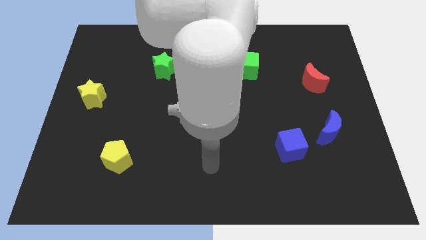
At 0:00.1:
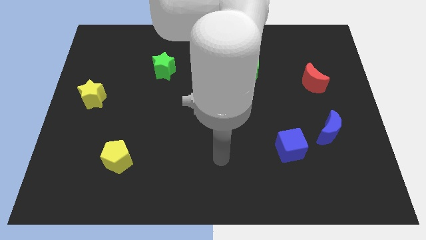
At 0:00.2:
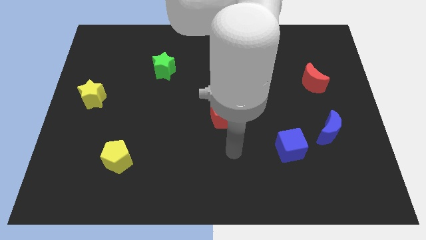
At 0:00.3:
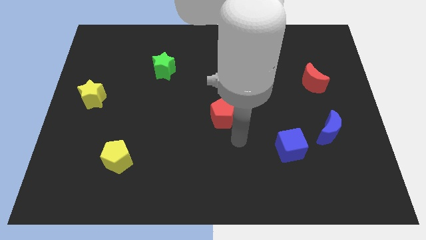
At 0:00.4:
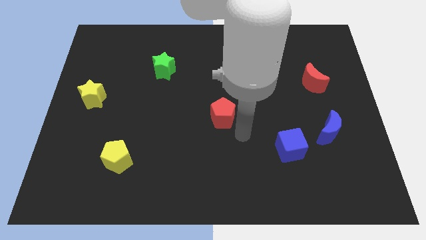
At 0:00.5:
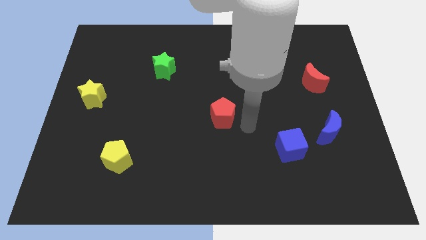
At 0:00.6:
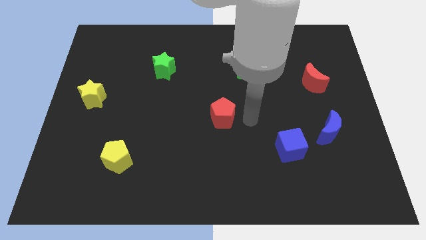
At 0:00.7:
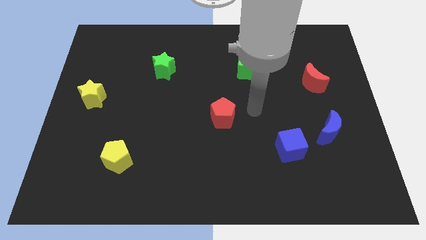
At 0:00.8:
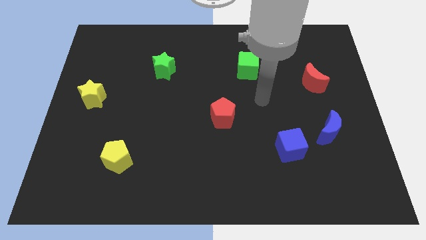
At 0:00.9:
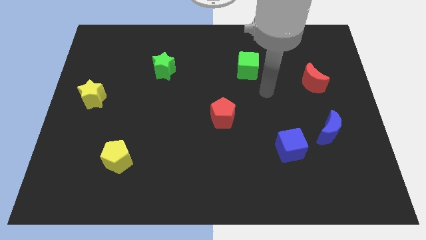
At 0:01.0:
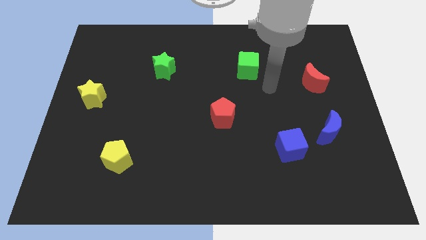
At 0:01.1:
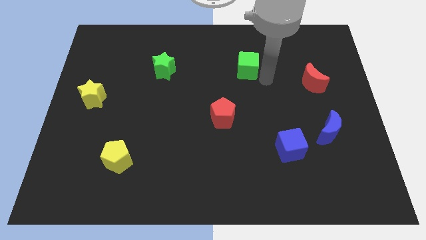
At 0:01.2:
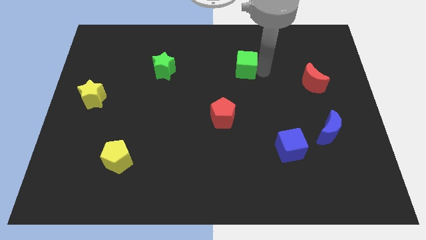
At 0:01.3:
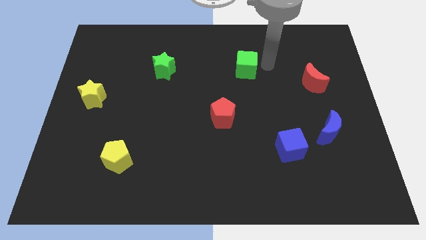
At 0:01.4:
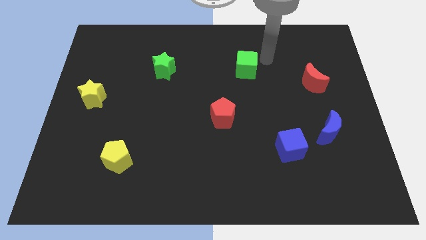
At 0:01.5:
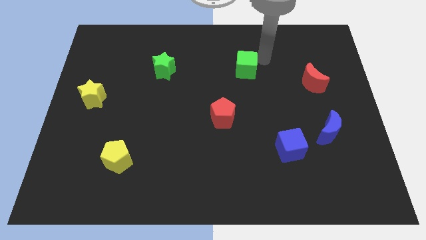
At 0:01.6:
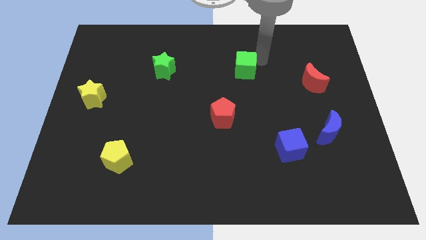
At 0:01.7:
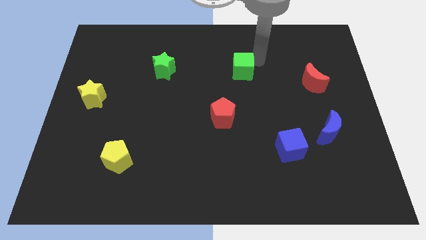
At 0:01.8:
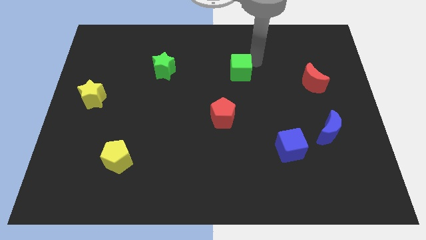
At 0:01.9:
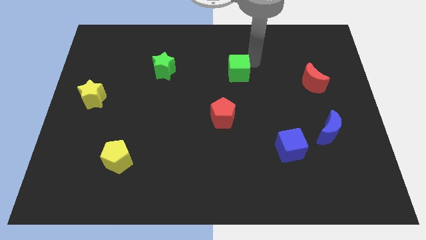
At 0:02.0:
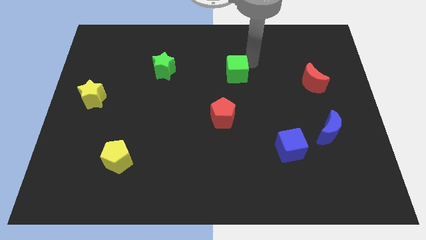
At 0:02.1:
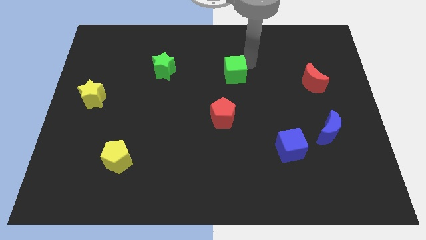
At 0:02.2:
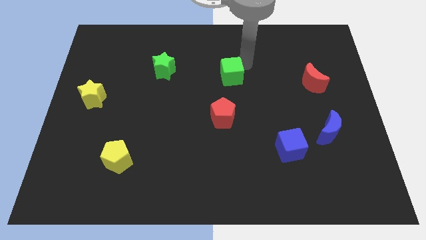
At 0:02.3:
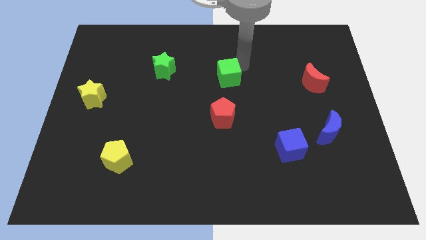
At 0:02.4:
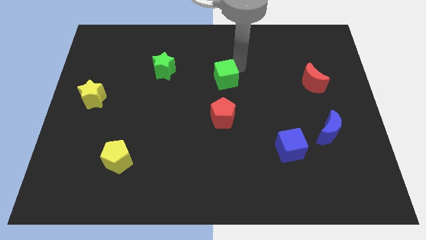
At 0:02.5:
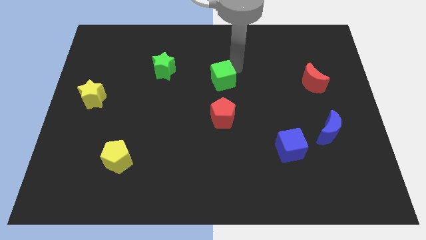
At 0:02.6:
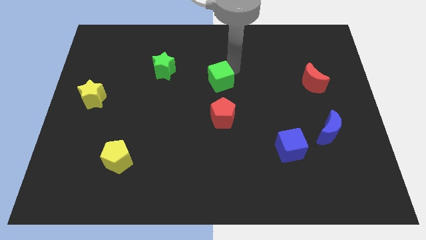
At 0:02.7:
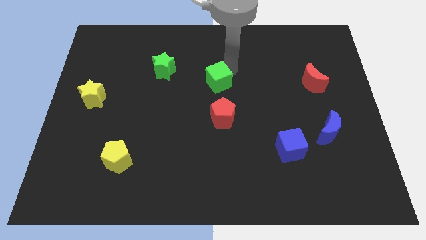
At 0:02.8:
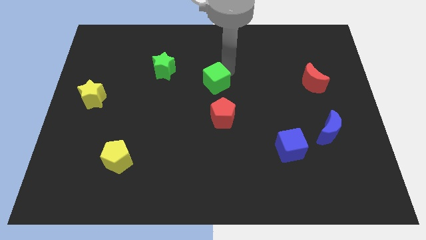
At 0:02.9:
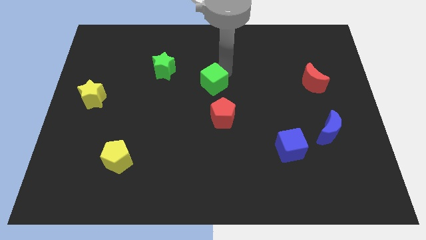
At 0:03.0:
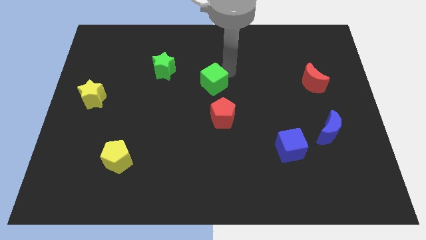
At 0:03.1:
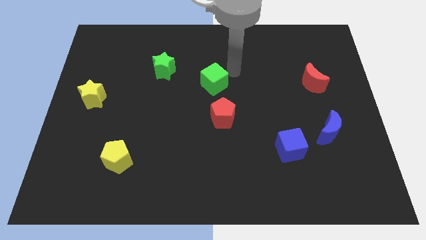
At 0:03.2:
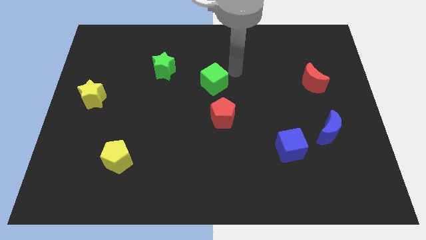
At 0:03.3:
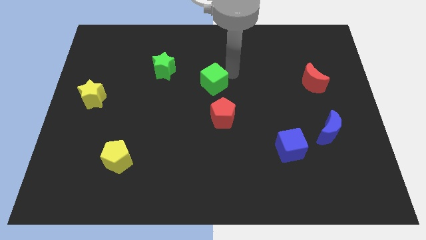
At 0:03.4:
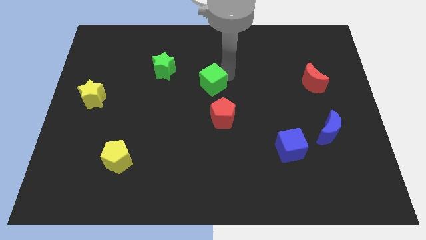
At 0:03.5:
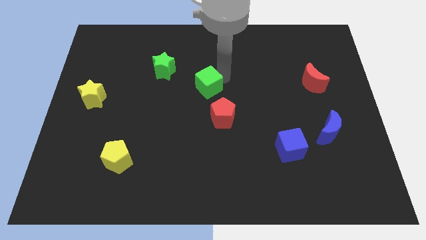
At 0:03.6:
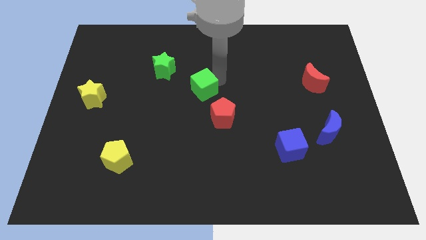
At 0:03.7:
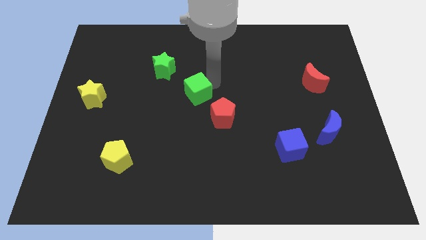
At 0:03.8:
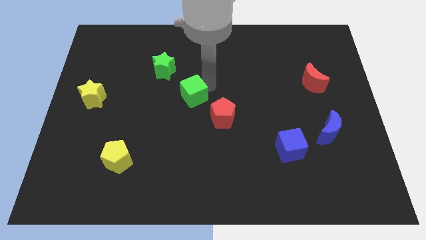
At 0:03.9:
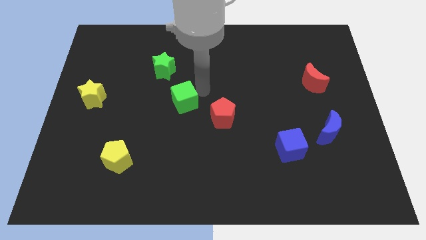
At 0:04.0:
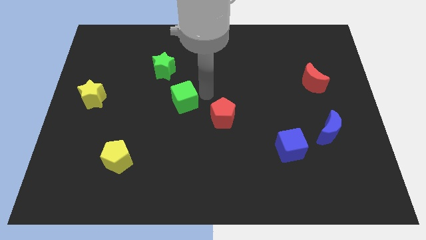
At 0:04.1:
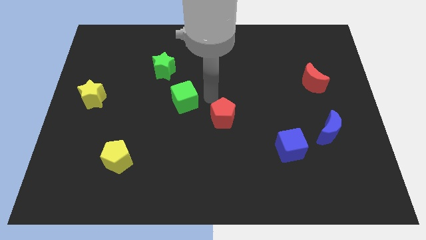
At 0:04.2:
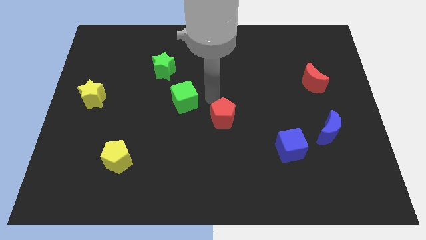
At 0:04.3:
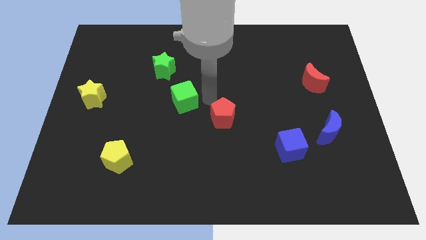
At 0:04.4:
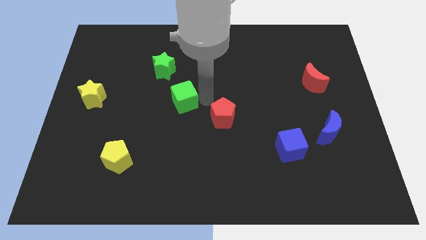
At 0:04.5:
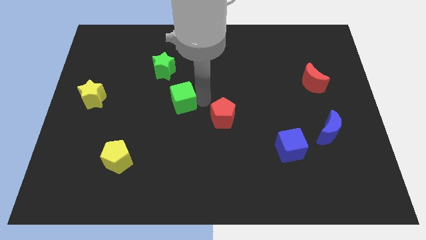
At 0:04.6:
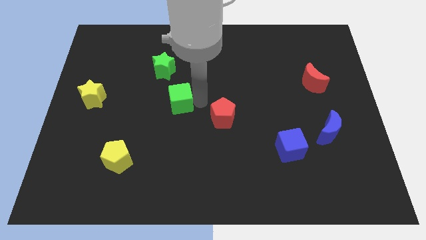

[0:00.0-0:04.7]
put the green cube to the bottom side of the green star

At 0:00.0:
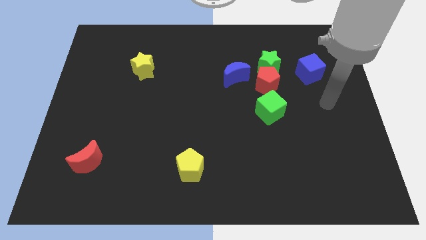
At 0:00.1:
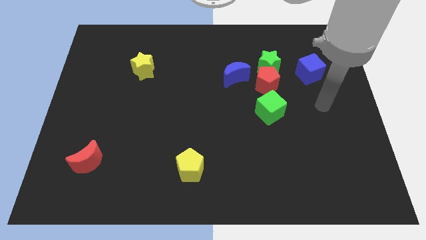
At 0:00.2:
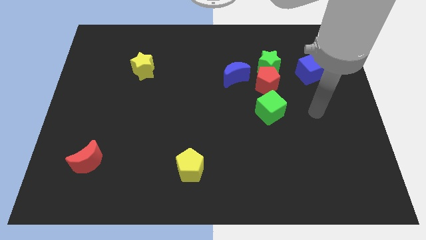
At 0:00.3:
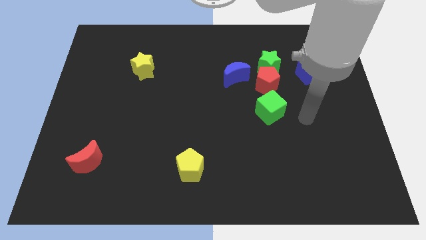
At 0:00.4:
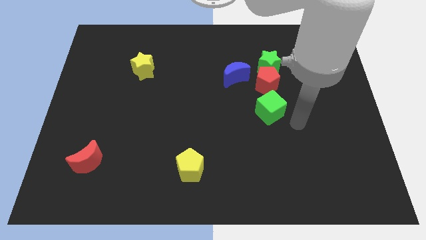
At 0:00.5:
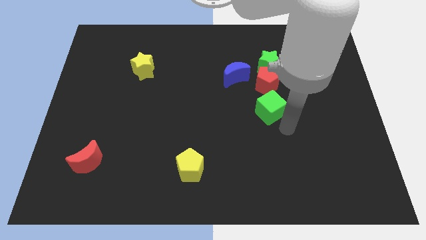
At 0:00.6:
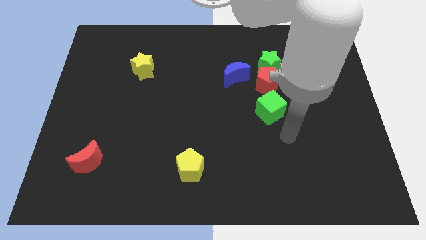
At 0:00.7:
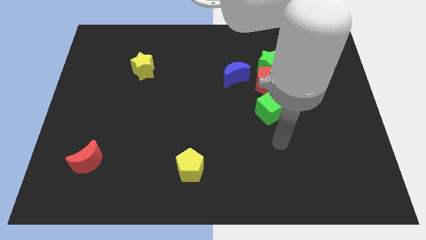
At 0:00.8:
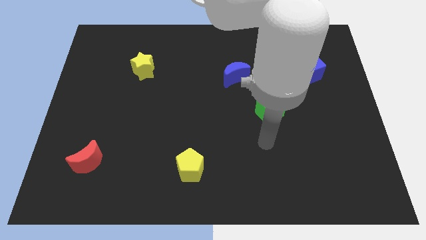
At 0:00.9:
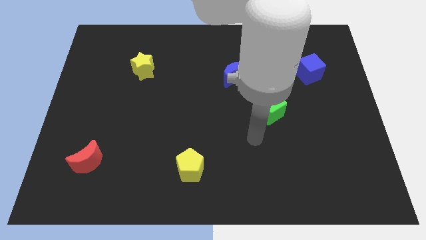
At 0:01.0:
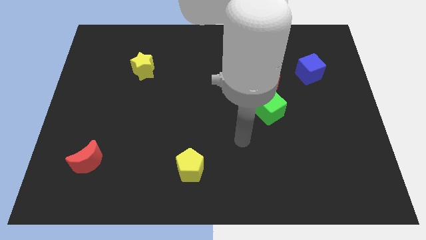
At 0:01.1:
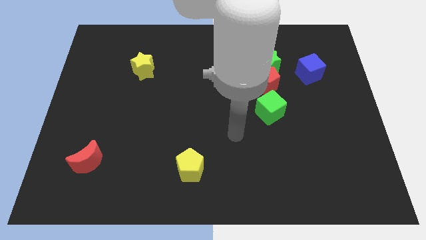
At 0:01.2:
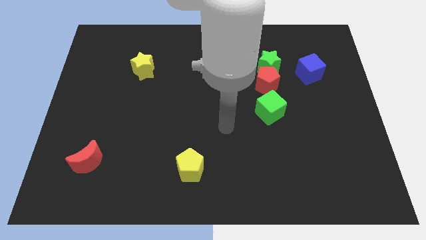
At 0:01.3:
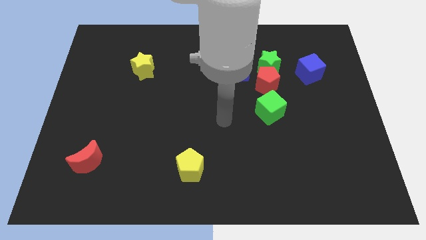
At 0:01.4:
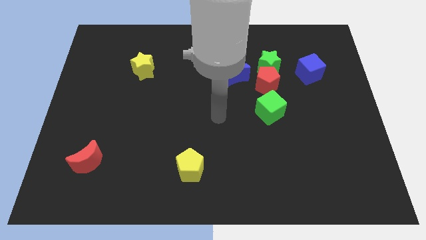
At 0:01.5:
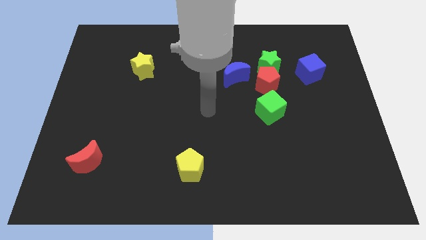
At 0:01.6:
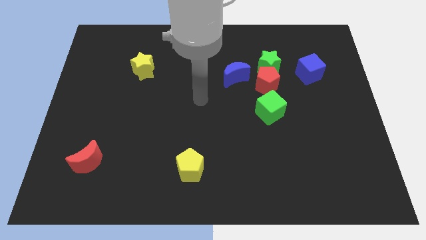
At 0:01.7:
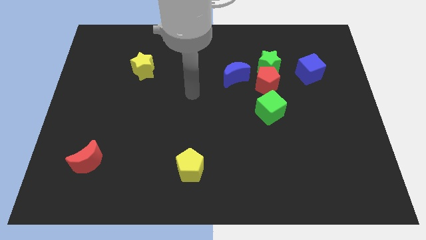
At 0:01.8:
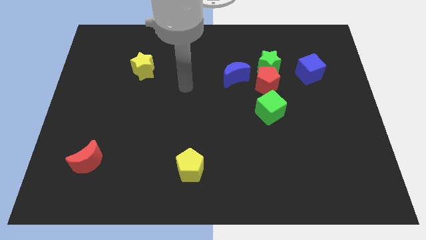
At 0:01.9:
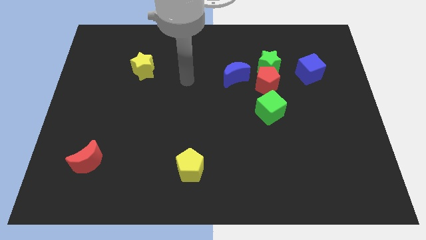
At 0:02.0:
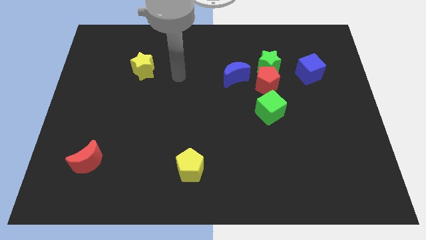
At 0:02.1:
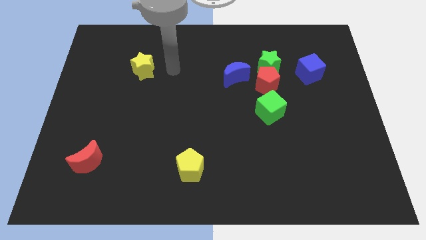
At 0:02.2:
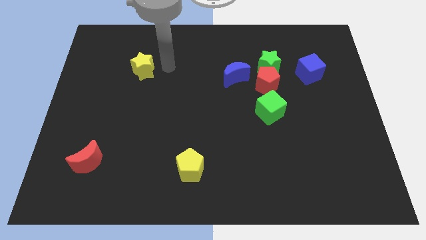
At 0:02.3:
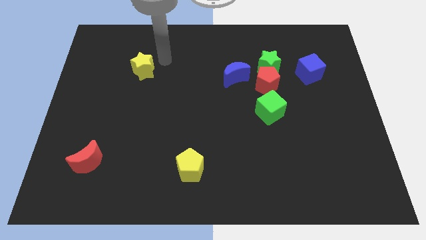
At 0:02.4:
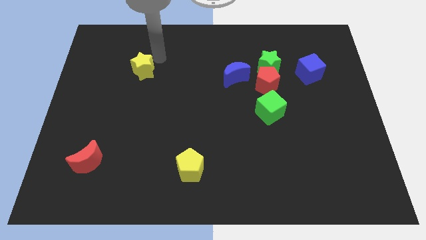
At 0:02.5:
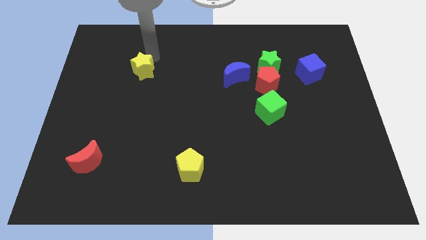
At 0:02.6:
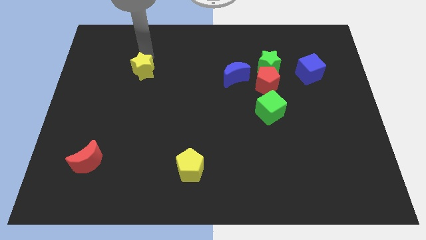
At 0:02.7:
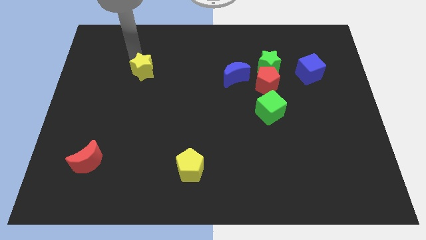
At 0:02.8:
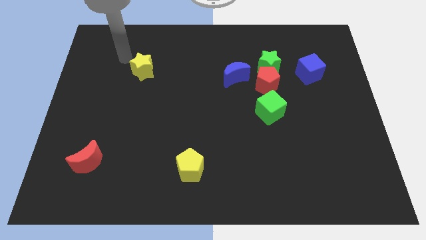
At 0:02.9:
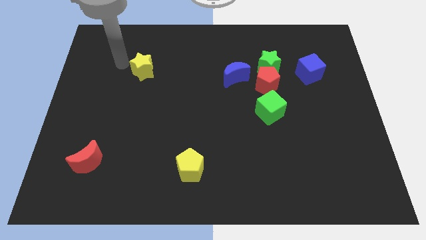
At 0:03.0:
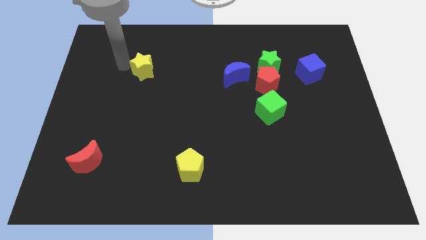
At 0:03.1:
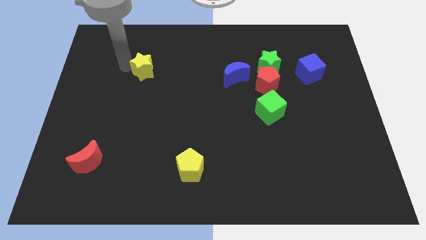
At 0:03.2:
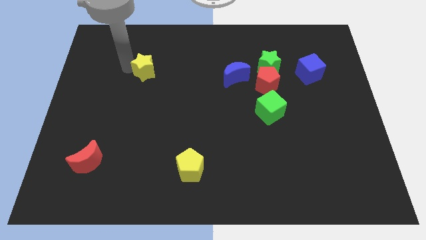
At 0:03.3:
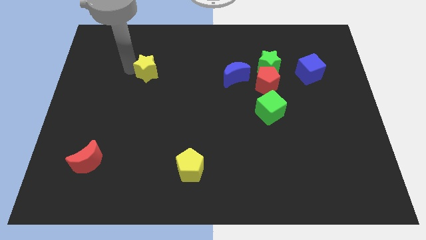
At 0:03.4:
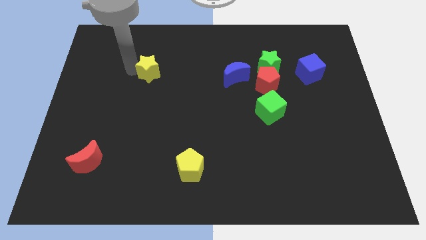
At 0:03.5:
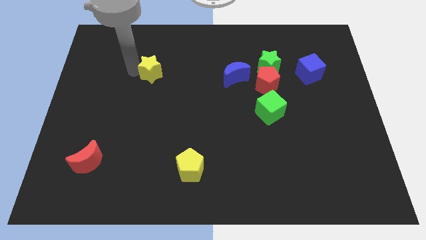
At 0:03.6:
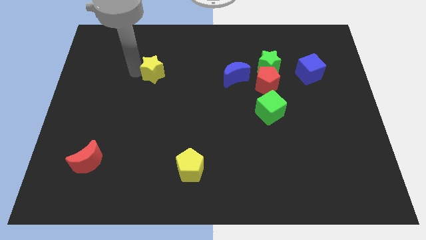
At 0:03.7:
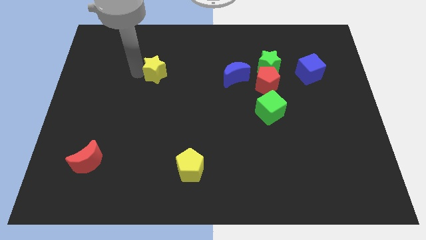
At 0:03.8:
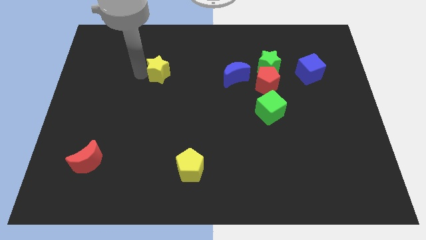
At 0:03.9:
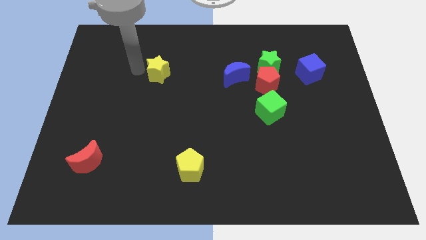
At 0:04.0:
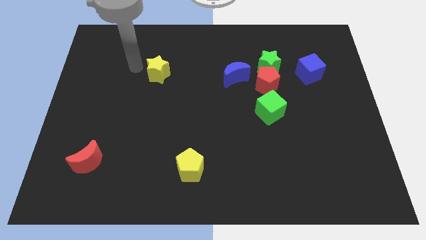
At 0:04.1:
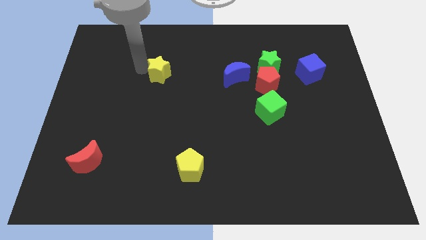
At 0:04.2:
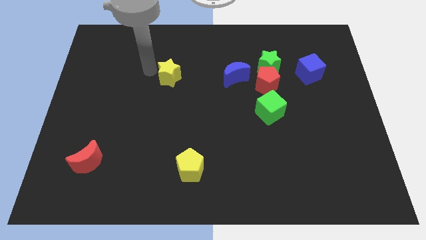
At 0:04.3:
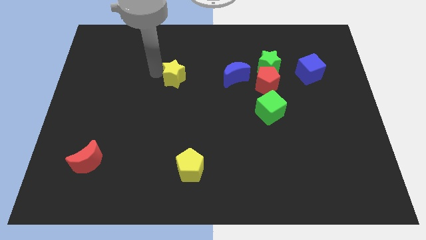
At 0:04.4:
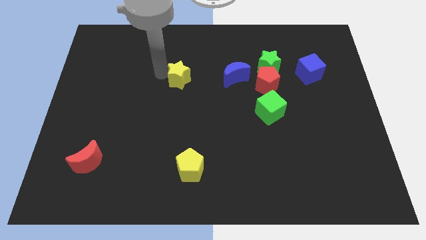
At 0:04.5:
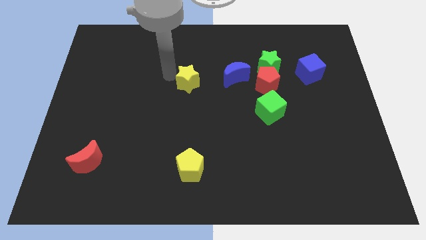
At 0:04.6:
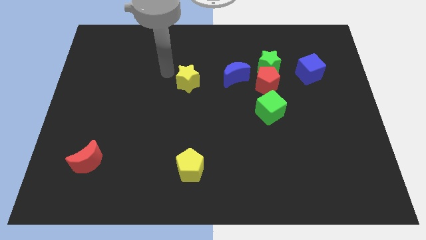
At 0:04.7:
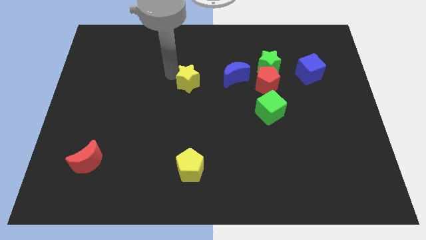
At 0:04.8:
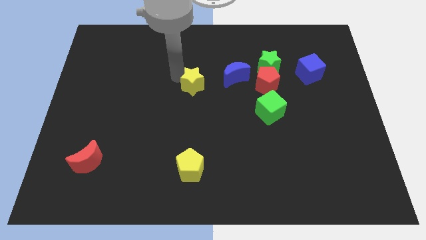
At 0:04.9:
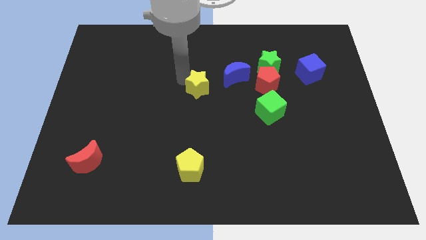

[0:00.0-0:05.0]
put the yellow star to the bottom left of the blue moon
